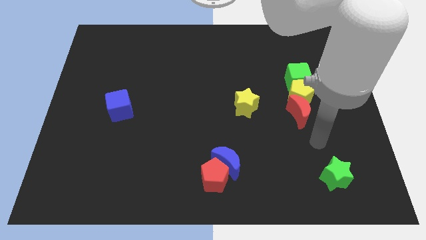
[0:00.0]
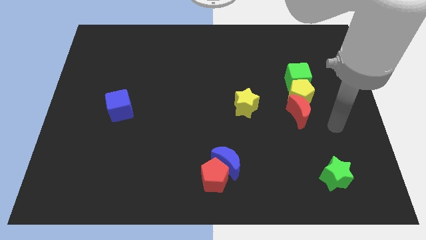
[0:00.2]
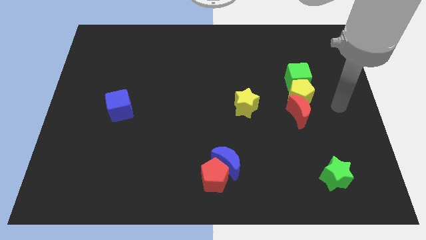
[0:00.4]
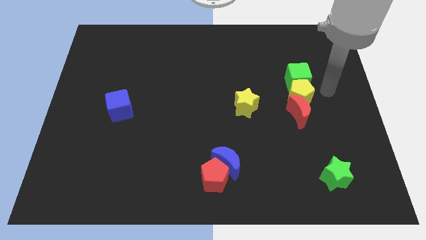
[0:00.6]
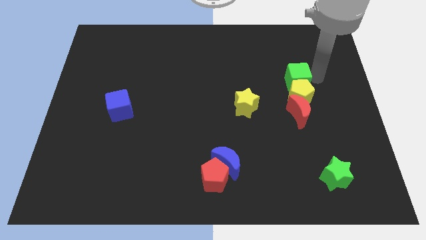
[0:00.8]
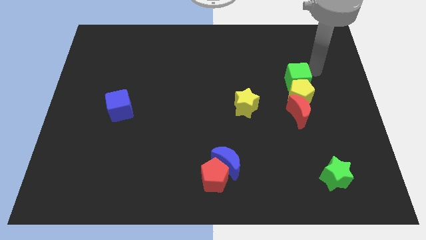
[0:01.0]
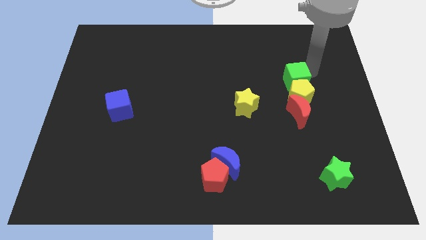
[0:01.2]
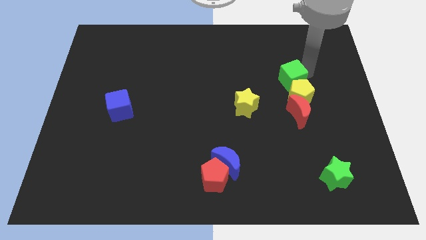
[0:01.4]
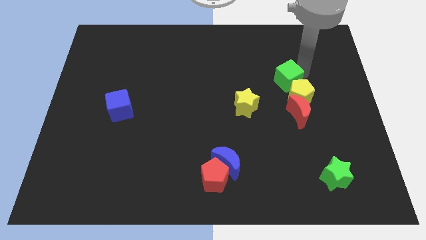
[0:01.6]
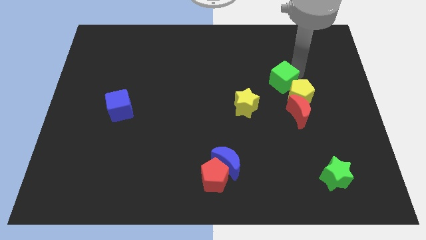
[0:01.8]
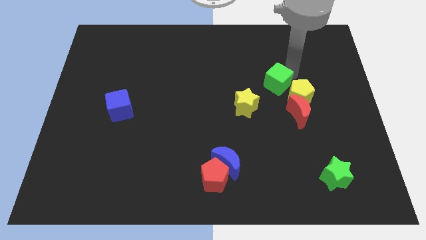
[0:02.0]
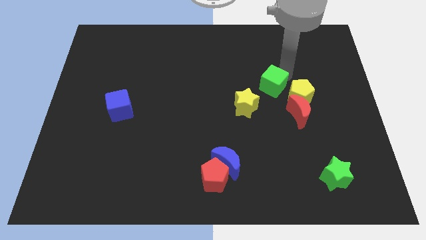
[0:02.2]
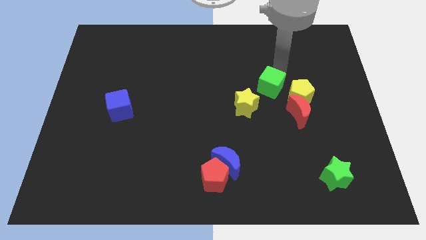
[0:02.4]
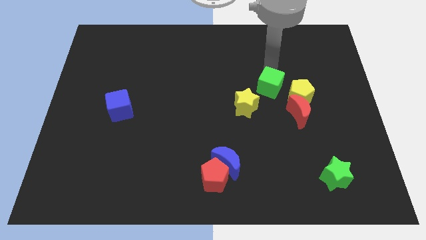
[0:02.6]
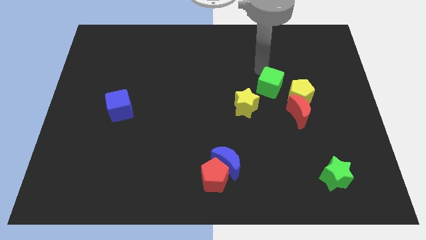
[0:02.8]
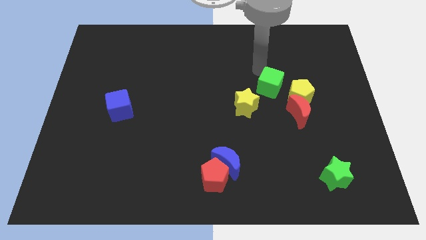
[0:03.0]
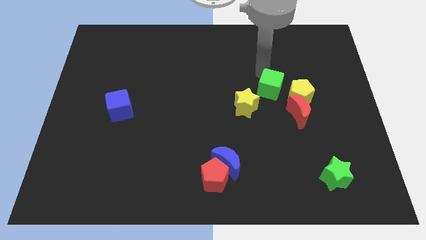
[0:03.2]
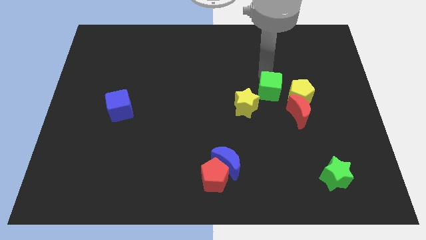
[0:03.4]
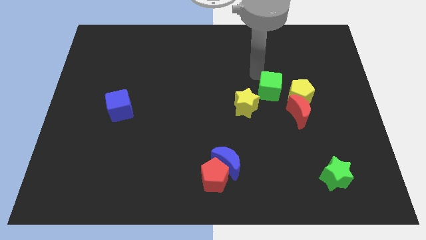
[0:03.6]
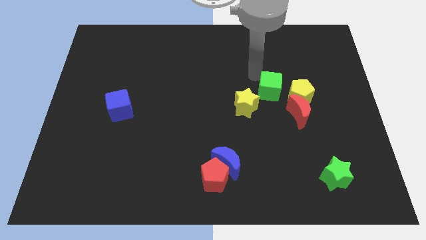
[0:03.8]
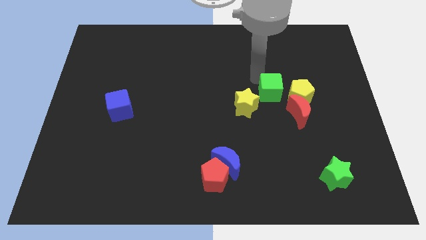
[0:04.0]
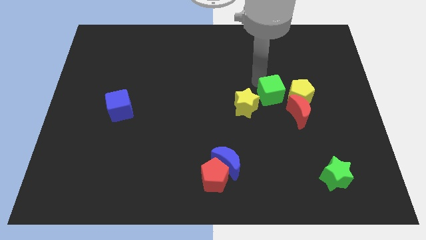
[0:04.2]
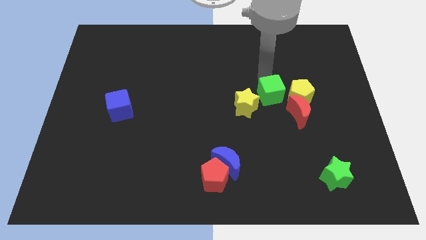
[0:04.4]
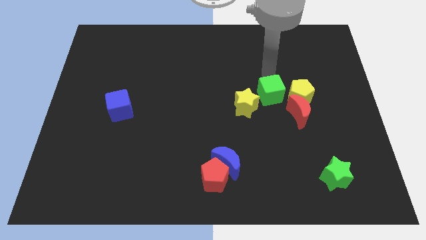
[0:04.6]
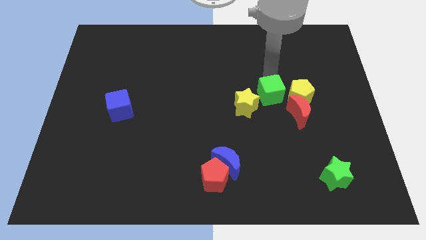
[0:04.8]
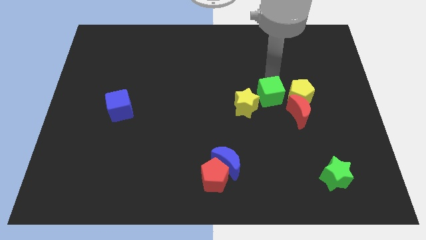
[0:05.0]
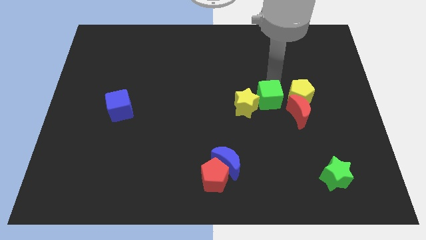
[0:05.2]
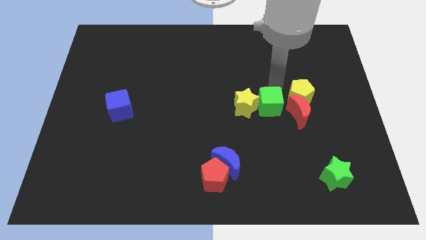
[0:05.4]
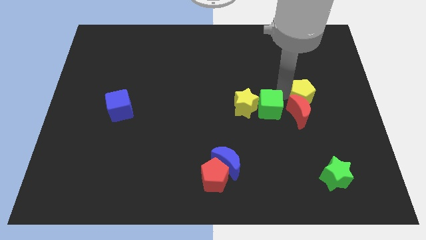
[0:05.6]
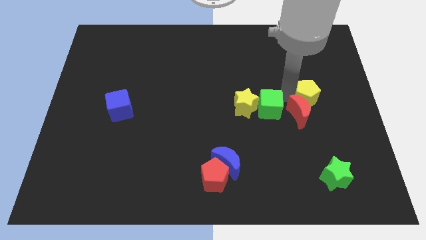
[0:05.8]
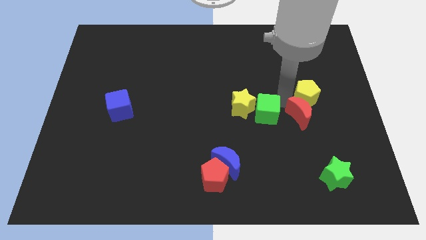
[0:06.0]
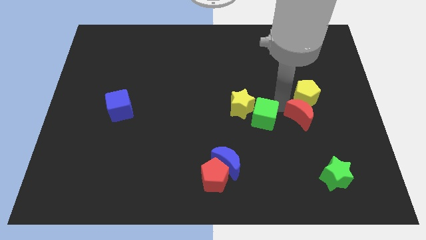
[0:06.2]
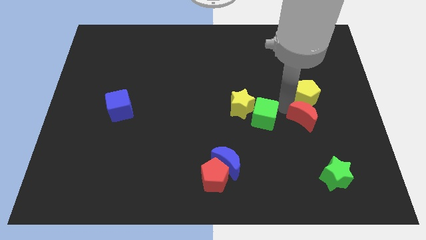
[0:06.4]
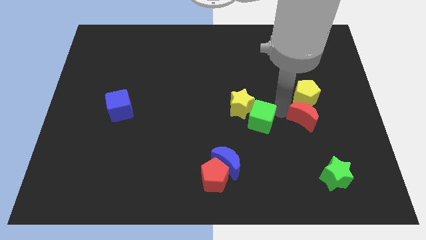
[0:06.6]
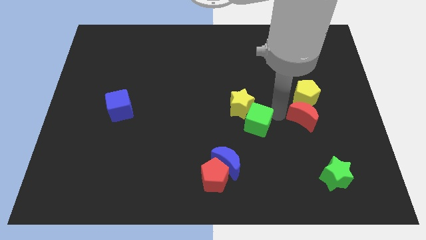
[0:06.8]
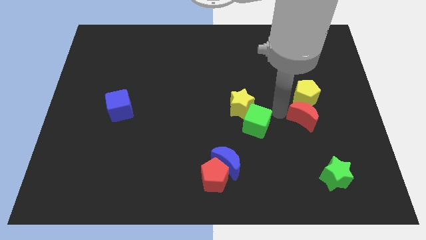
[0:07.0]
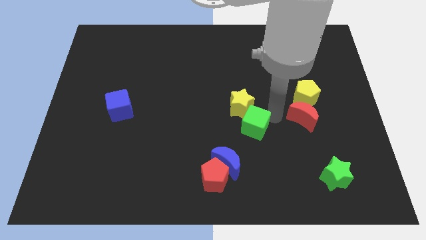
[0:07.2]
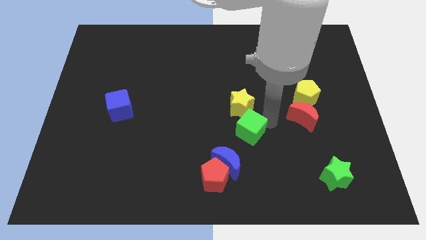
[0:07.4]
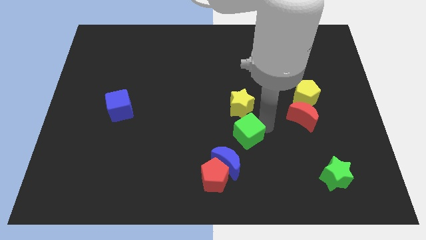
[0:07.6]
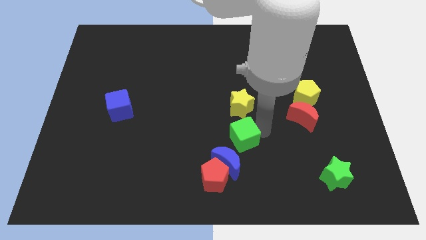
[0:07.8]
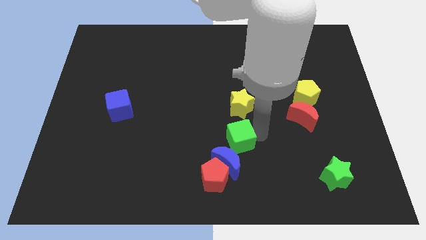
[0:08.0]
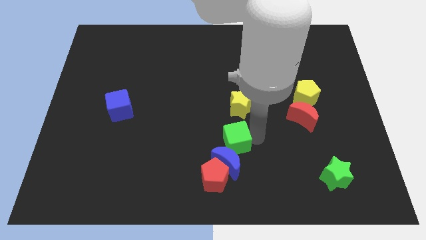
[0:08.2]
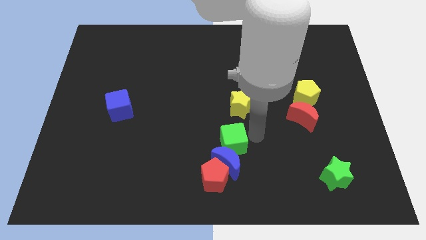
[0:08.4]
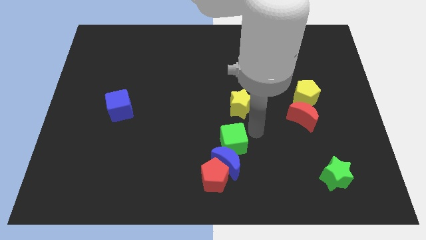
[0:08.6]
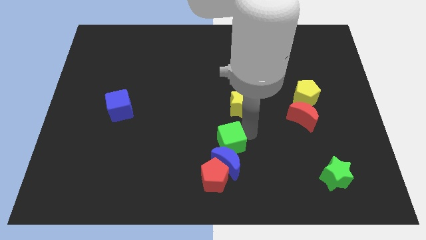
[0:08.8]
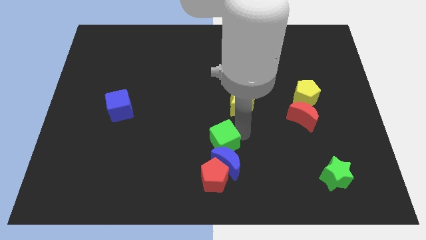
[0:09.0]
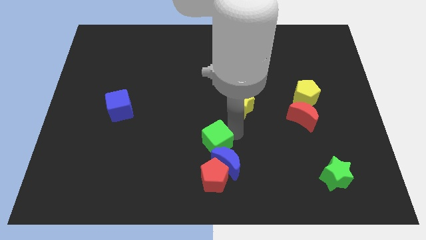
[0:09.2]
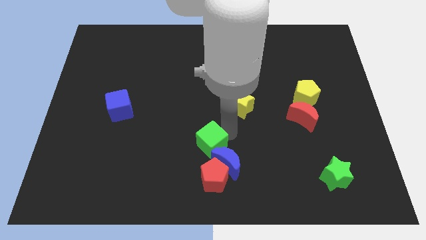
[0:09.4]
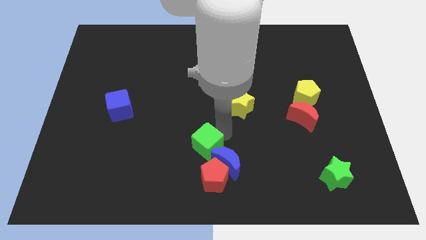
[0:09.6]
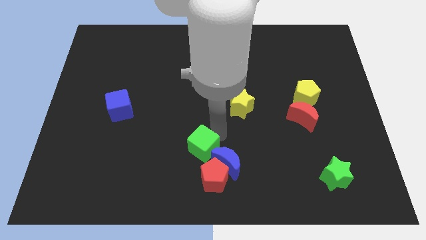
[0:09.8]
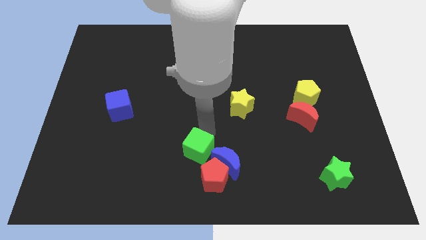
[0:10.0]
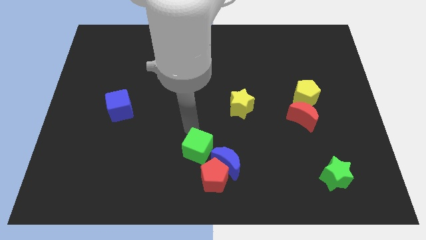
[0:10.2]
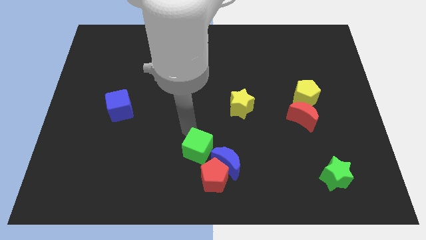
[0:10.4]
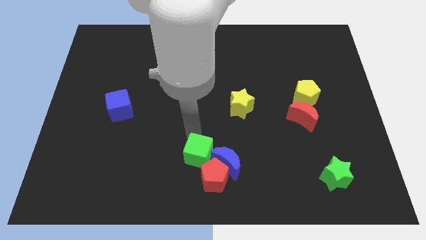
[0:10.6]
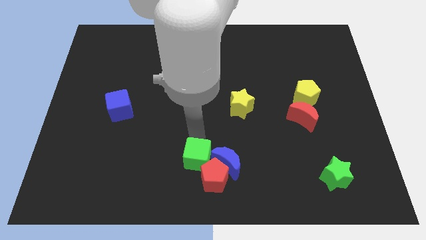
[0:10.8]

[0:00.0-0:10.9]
push the green cube next to the red pentagon
